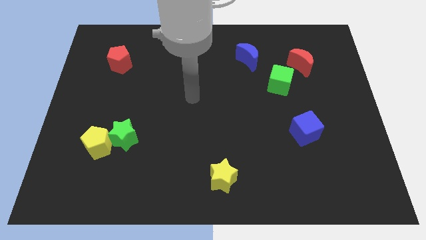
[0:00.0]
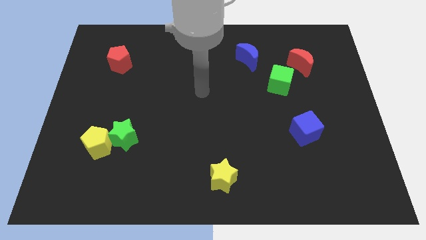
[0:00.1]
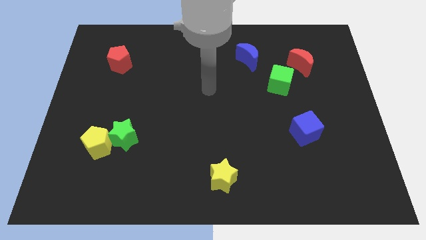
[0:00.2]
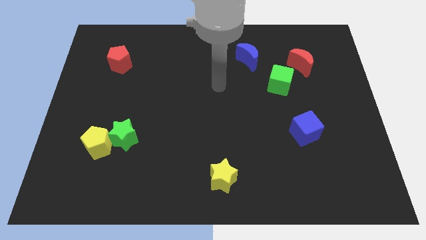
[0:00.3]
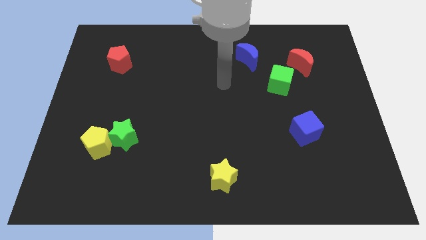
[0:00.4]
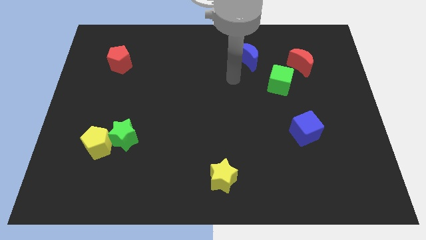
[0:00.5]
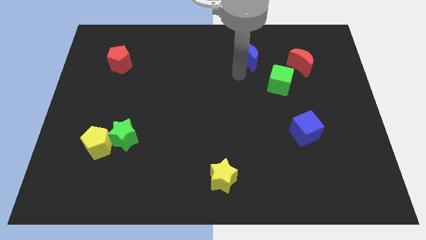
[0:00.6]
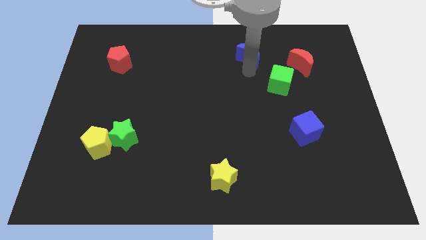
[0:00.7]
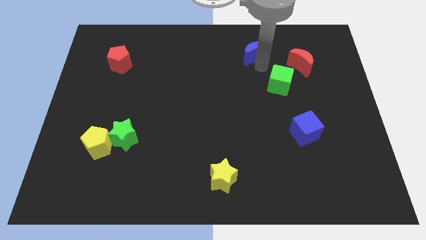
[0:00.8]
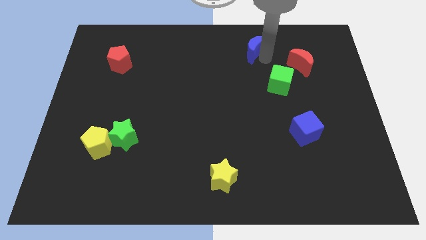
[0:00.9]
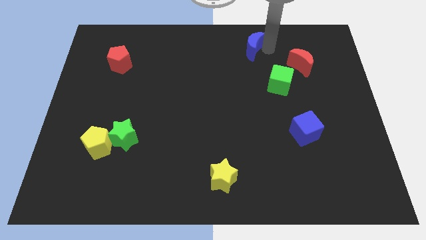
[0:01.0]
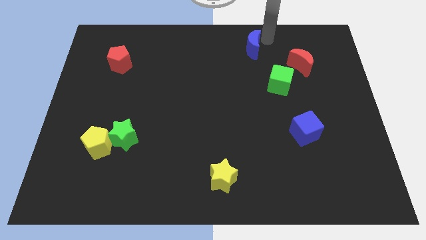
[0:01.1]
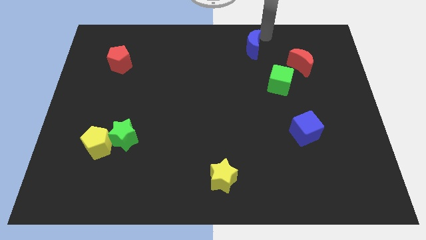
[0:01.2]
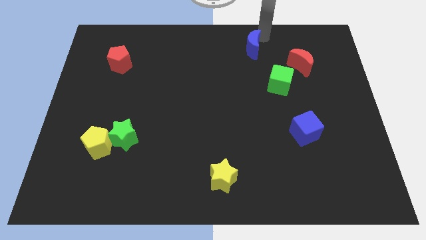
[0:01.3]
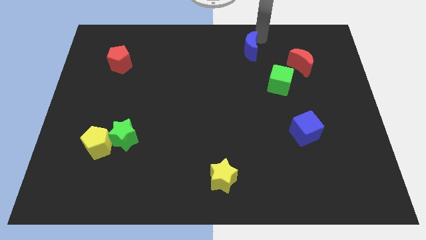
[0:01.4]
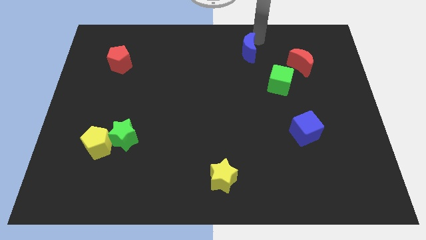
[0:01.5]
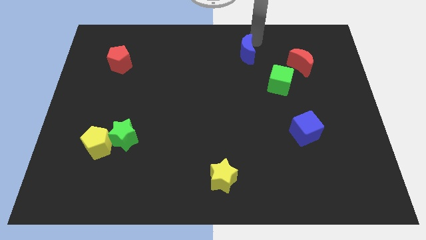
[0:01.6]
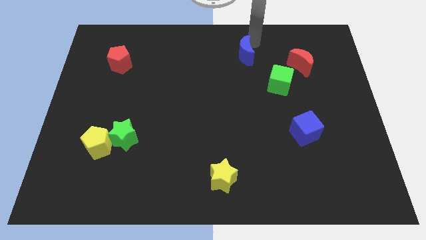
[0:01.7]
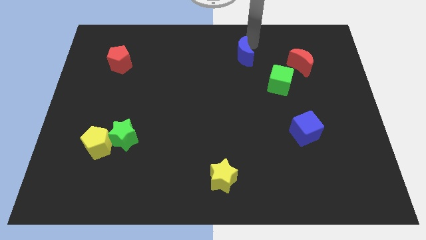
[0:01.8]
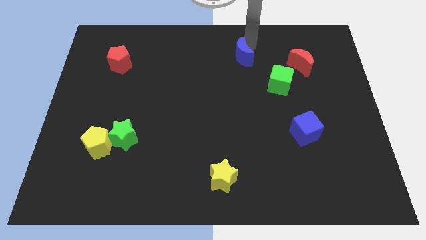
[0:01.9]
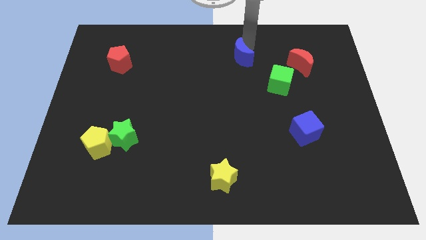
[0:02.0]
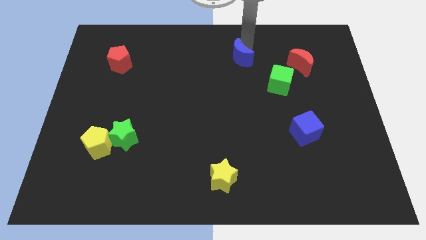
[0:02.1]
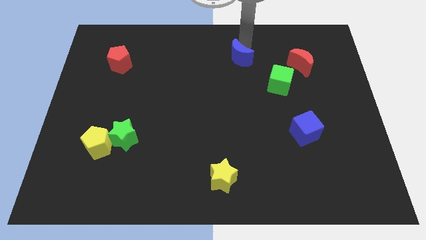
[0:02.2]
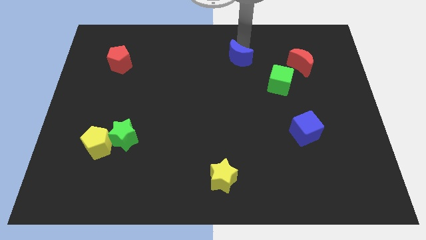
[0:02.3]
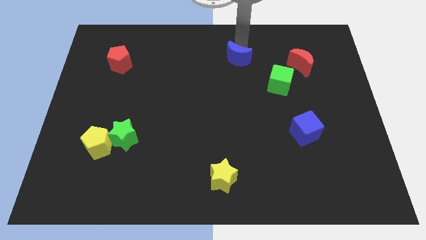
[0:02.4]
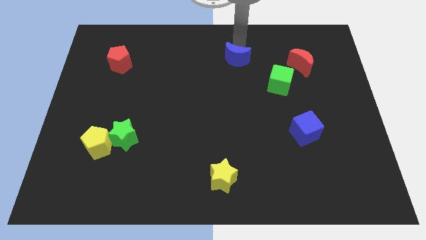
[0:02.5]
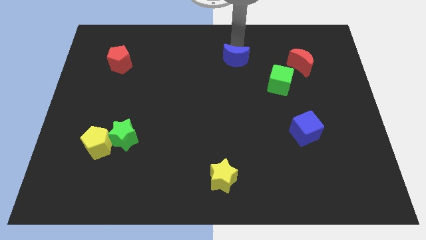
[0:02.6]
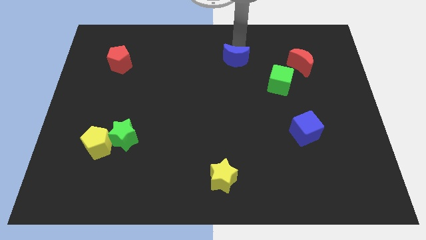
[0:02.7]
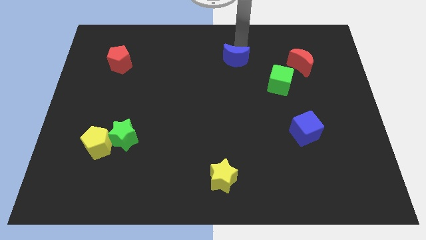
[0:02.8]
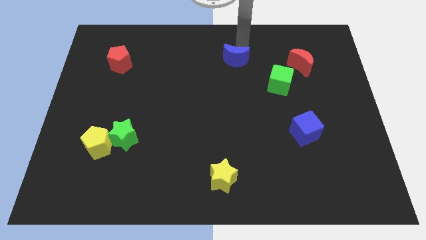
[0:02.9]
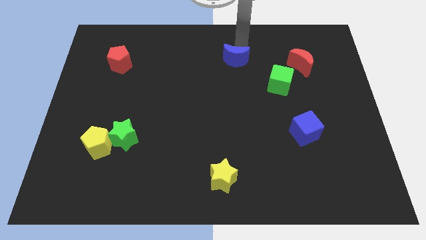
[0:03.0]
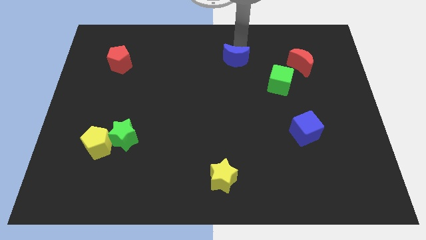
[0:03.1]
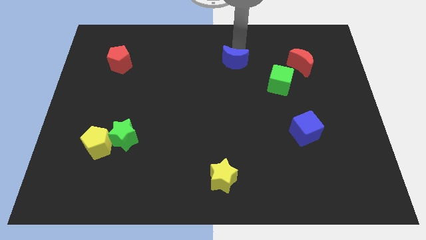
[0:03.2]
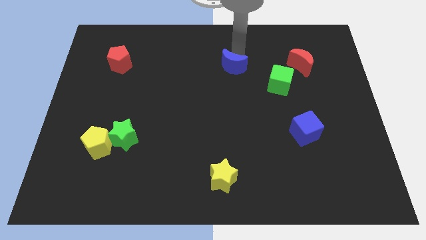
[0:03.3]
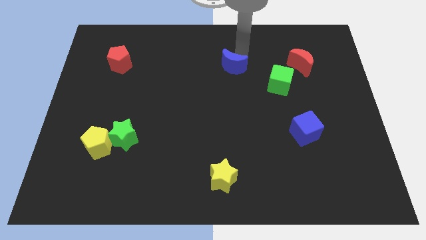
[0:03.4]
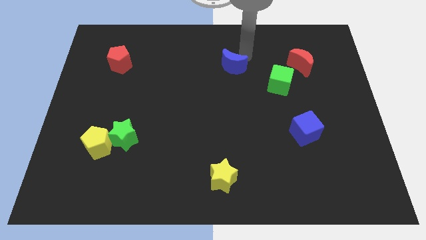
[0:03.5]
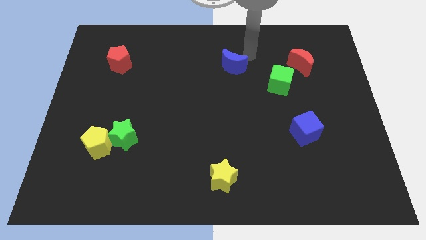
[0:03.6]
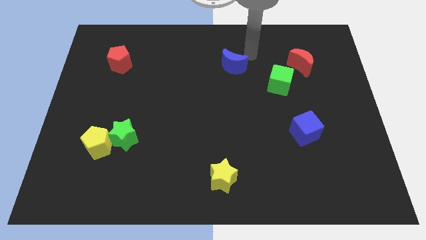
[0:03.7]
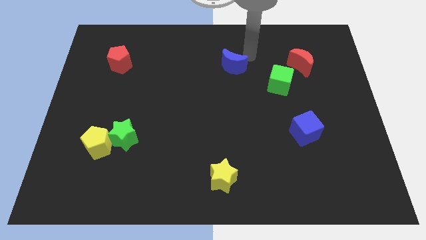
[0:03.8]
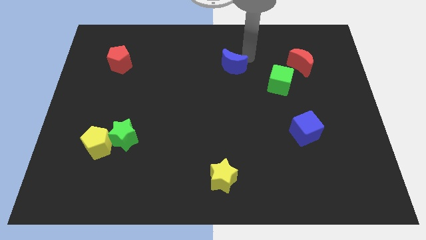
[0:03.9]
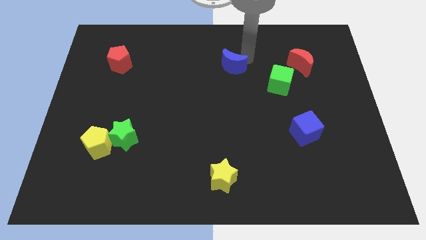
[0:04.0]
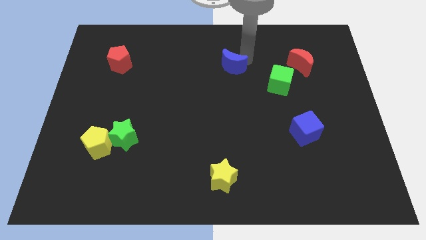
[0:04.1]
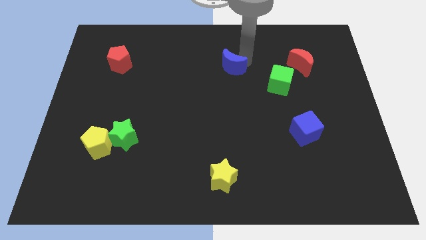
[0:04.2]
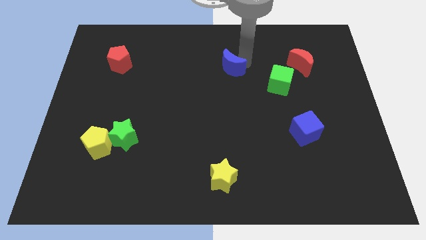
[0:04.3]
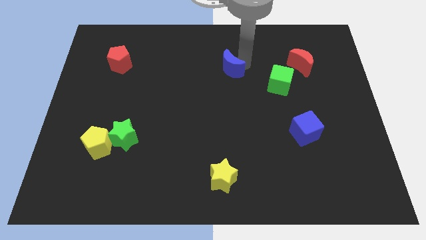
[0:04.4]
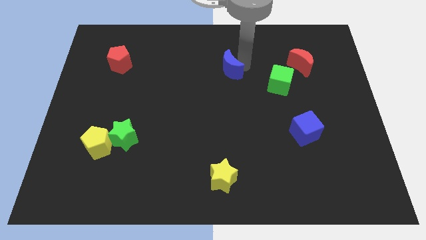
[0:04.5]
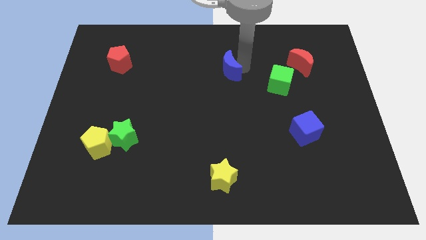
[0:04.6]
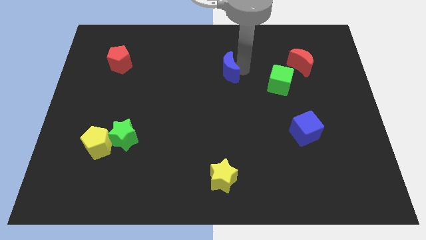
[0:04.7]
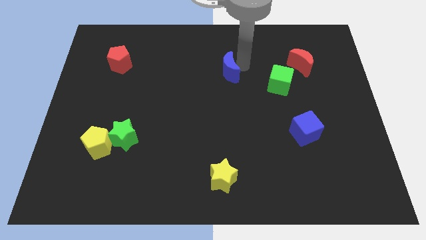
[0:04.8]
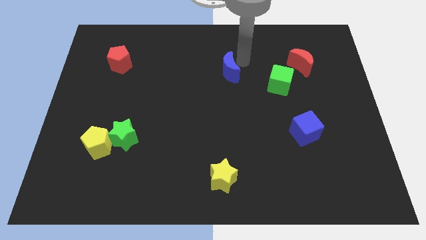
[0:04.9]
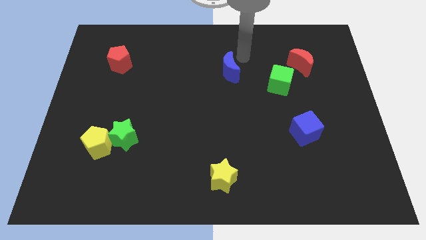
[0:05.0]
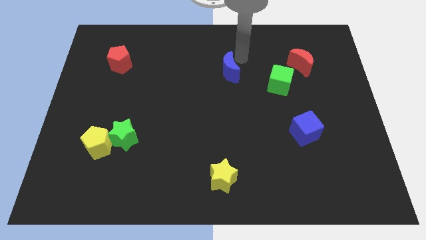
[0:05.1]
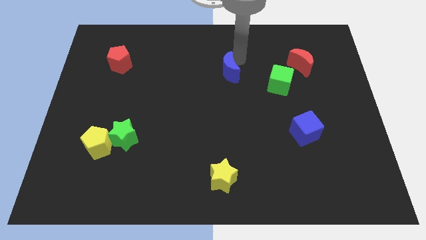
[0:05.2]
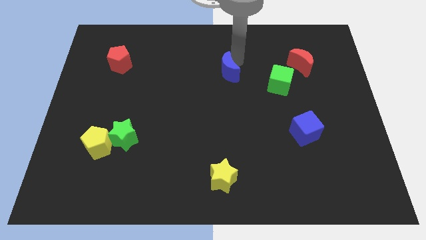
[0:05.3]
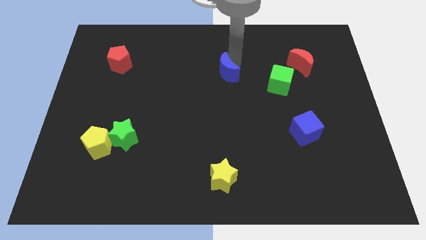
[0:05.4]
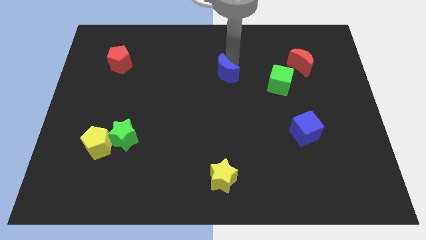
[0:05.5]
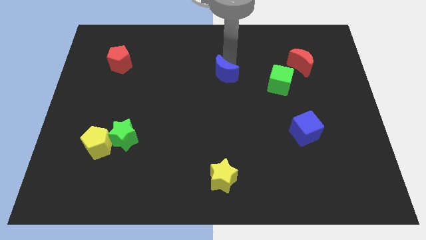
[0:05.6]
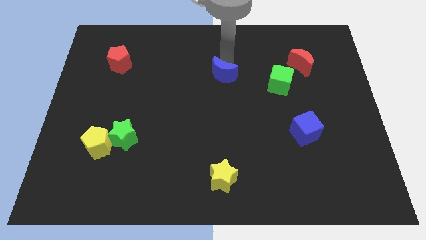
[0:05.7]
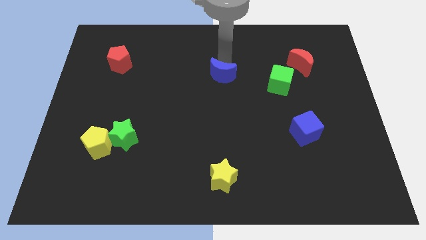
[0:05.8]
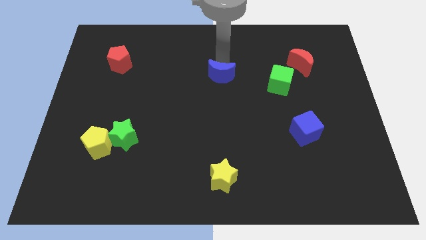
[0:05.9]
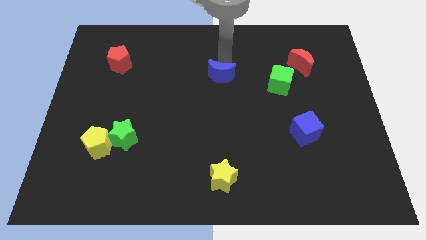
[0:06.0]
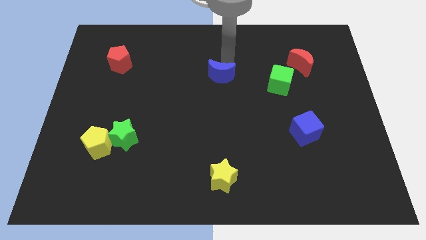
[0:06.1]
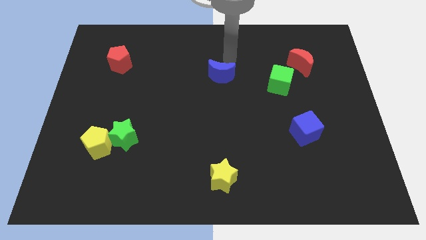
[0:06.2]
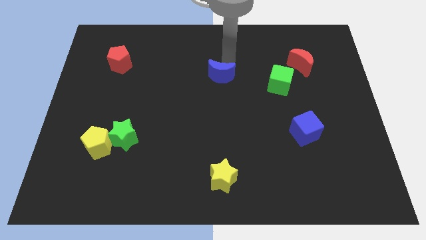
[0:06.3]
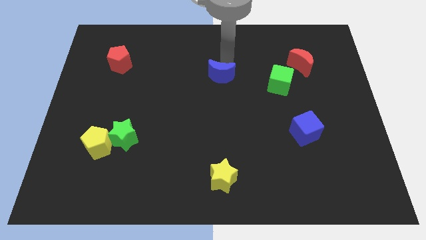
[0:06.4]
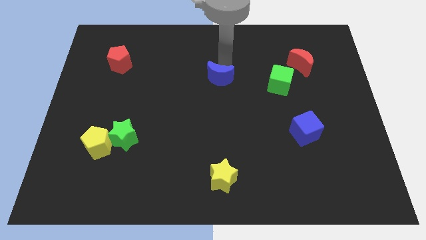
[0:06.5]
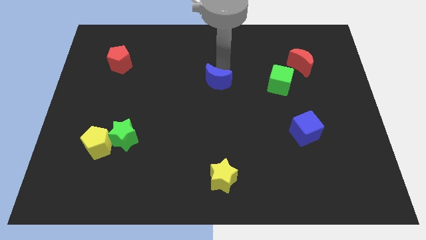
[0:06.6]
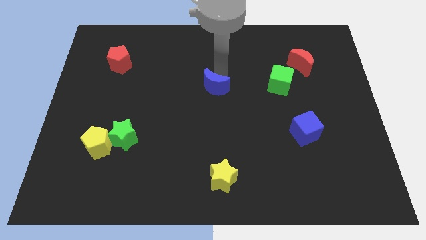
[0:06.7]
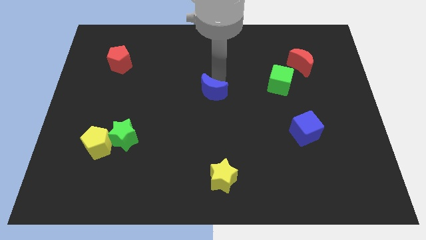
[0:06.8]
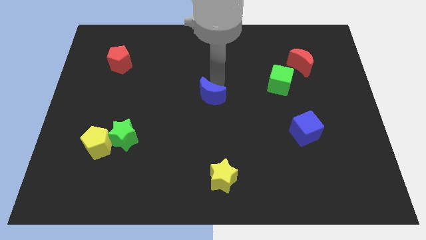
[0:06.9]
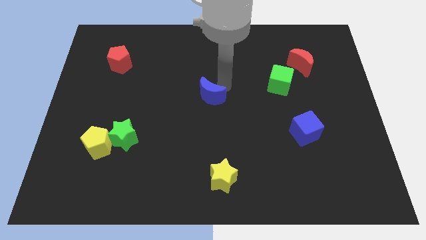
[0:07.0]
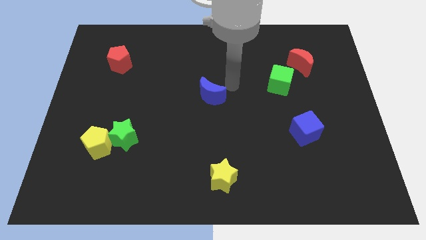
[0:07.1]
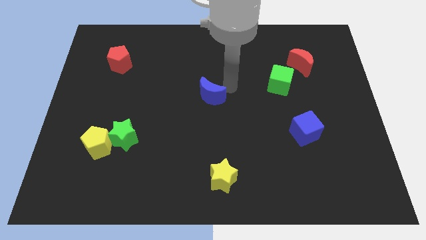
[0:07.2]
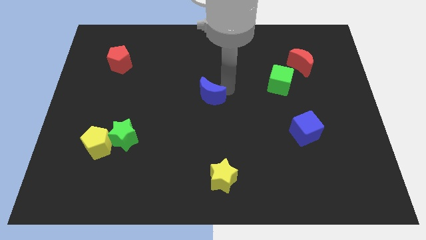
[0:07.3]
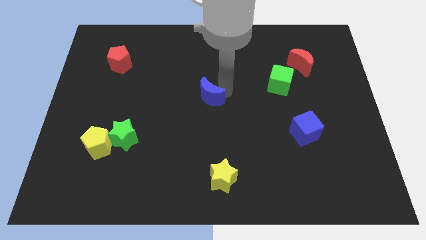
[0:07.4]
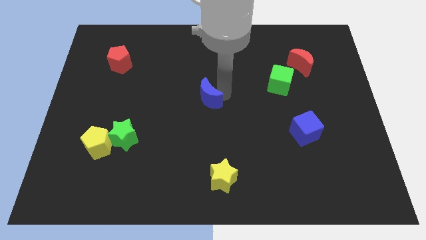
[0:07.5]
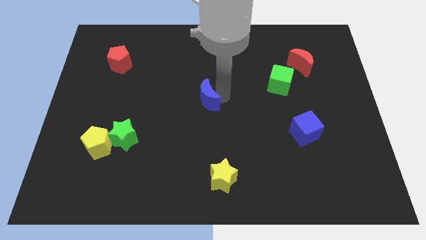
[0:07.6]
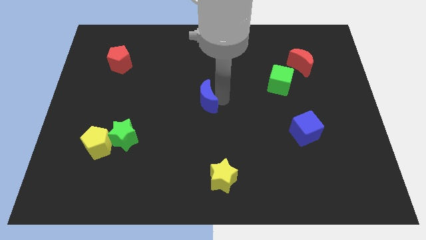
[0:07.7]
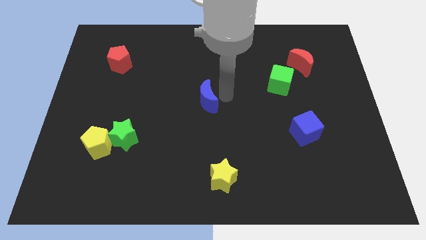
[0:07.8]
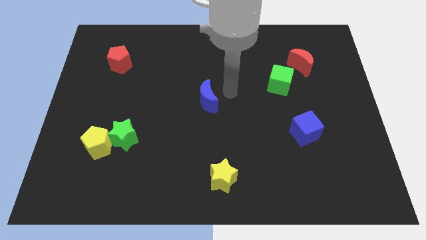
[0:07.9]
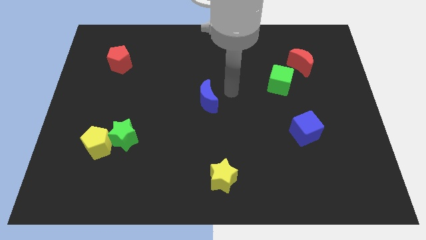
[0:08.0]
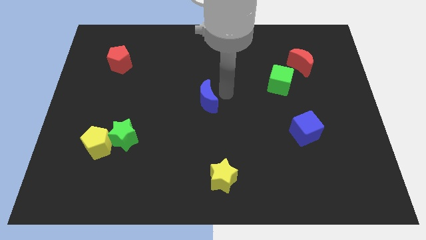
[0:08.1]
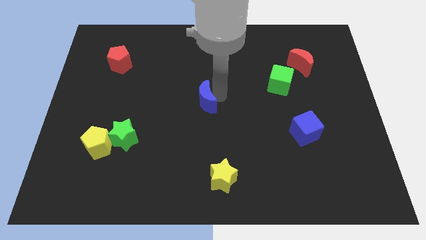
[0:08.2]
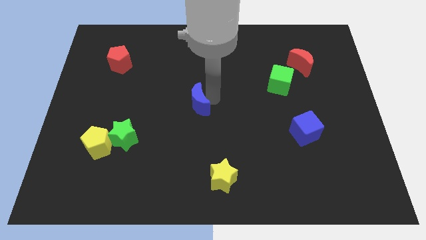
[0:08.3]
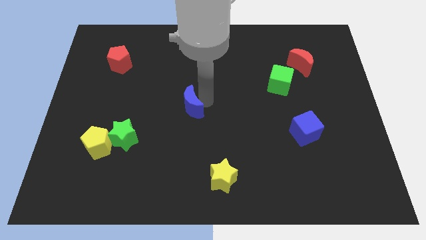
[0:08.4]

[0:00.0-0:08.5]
slide the blue moon downwards and to the left diagonally
